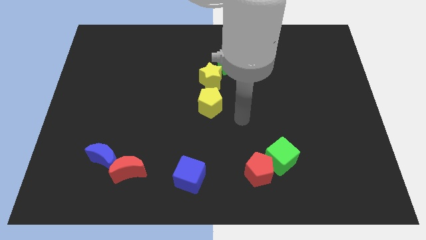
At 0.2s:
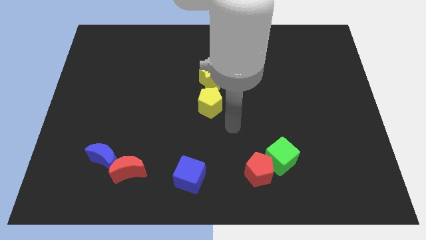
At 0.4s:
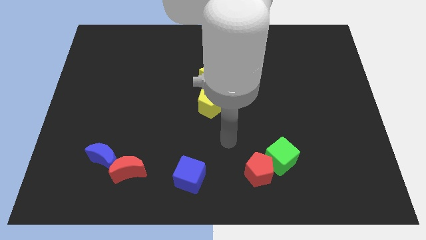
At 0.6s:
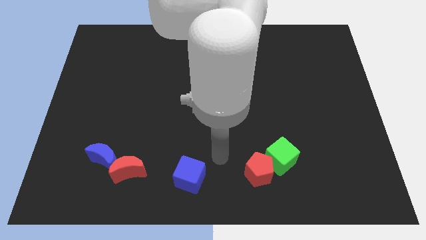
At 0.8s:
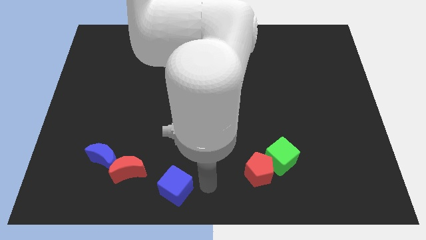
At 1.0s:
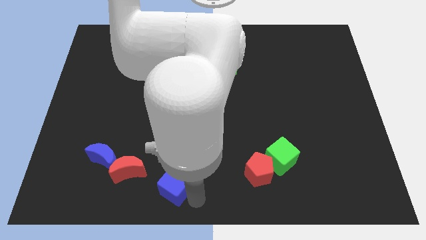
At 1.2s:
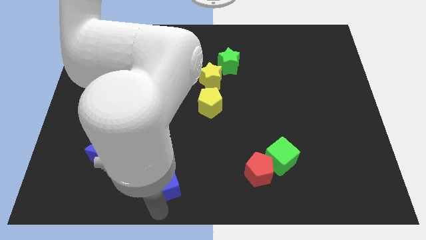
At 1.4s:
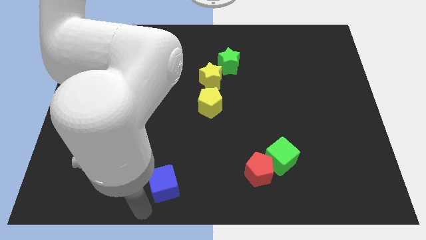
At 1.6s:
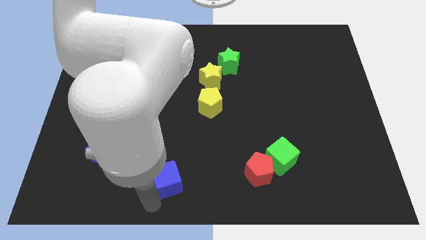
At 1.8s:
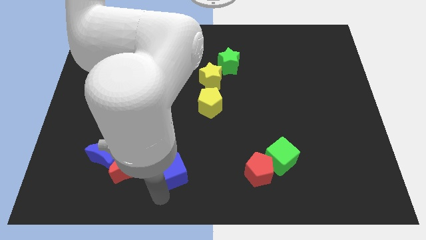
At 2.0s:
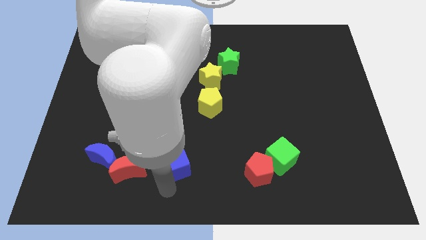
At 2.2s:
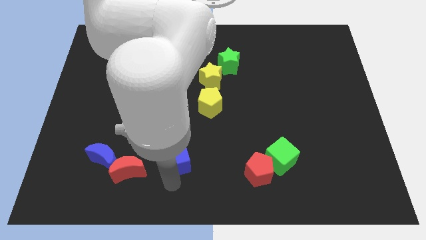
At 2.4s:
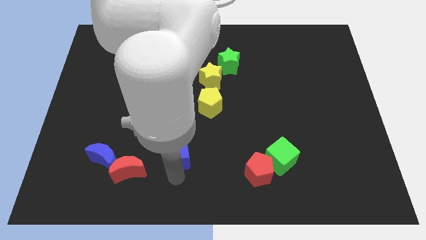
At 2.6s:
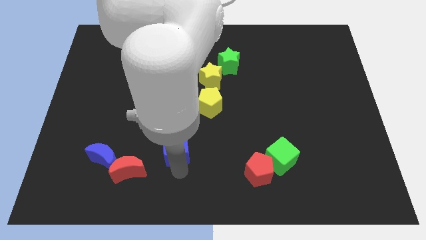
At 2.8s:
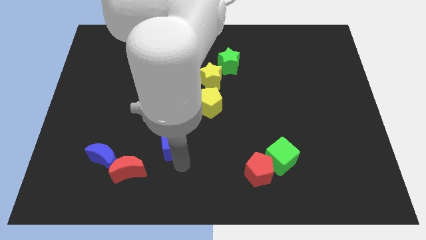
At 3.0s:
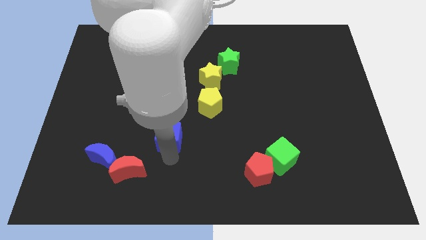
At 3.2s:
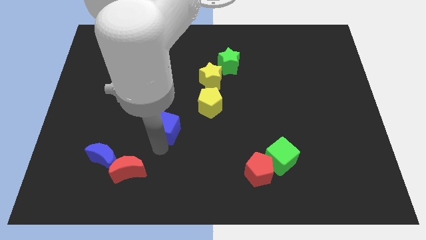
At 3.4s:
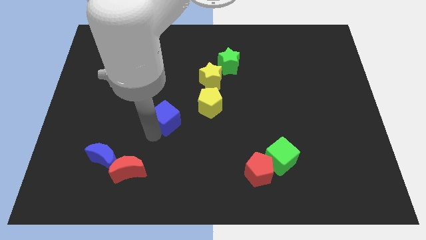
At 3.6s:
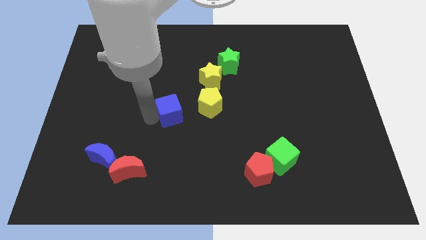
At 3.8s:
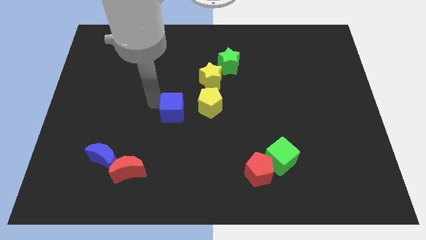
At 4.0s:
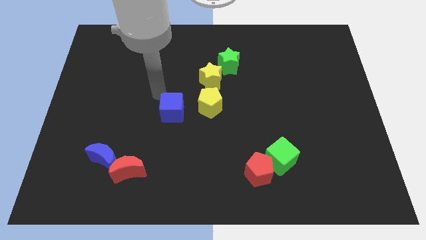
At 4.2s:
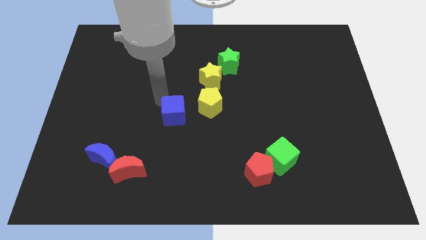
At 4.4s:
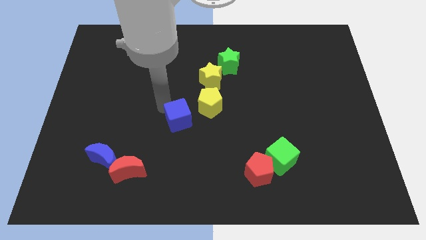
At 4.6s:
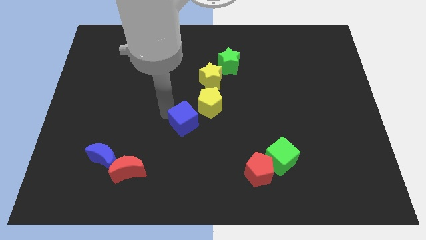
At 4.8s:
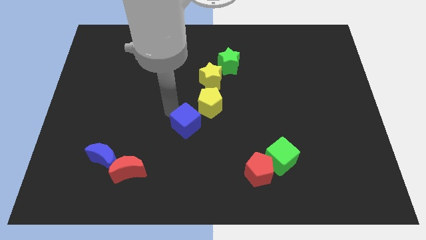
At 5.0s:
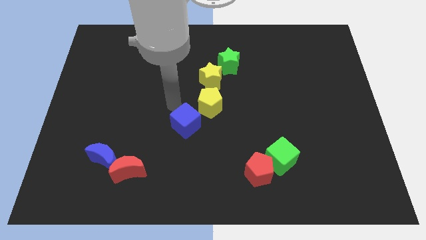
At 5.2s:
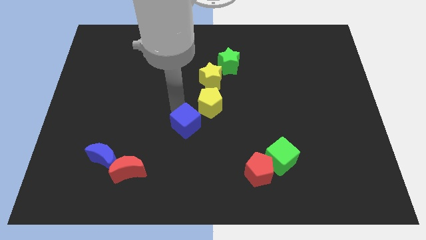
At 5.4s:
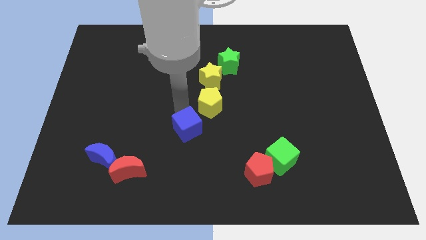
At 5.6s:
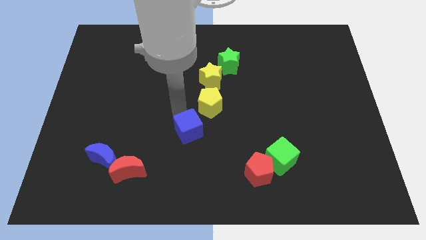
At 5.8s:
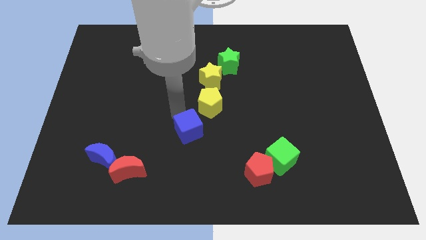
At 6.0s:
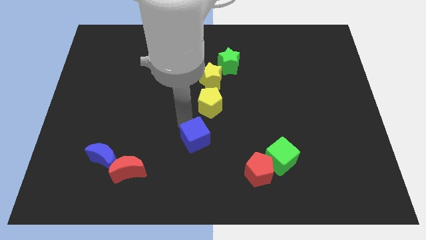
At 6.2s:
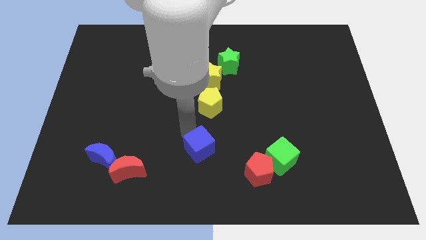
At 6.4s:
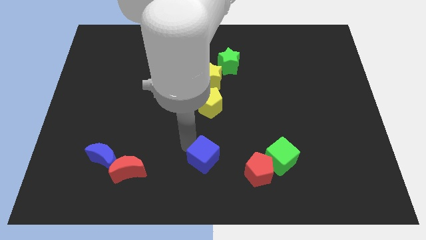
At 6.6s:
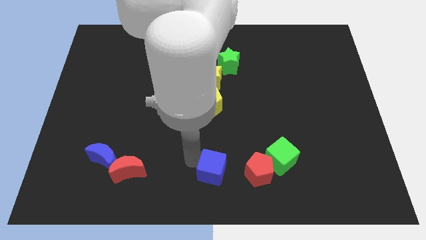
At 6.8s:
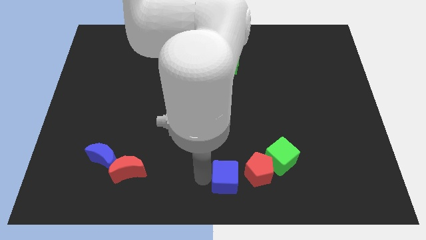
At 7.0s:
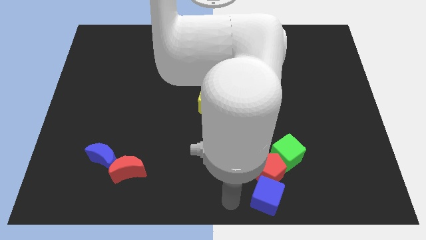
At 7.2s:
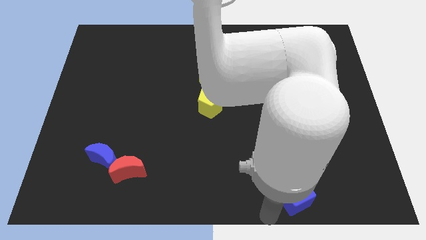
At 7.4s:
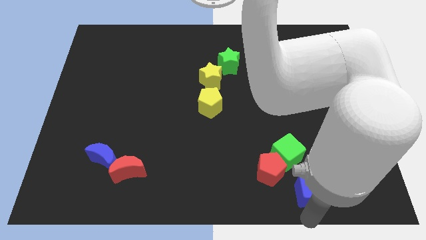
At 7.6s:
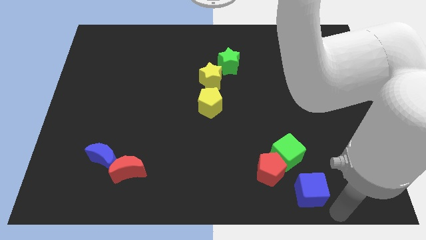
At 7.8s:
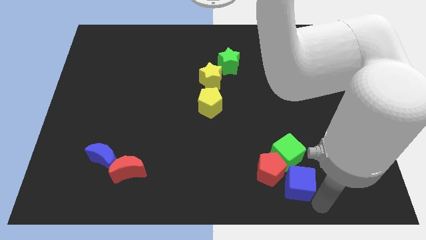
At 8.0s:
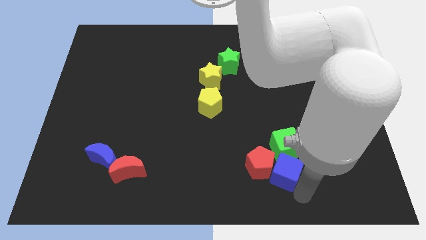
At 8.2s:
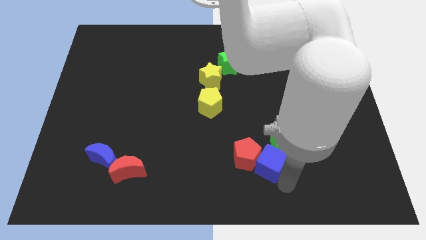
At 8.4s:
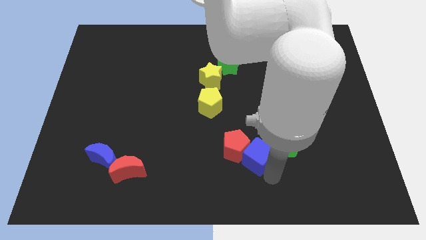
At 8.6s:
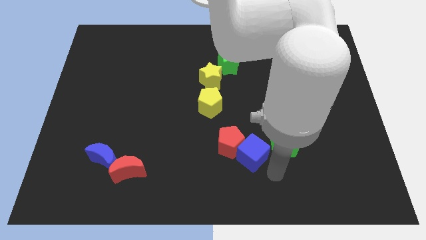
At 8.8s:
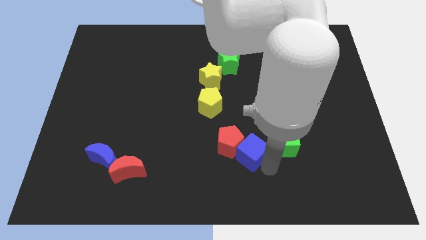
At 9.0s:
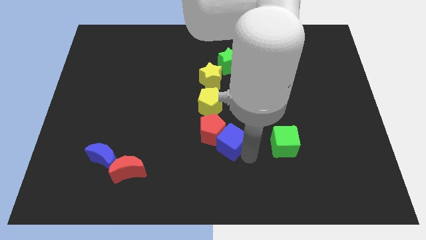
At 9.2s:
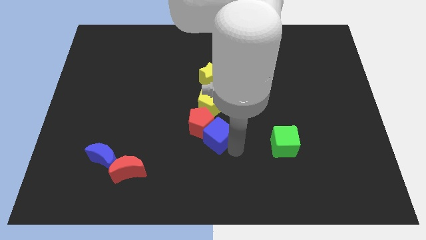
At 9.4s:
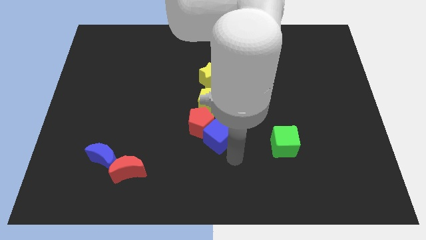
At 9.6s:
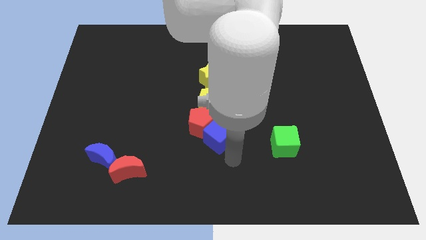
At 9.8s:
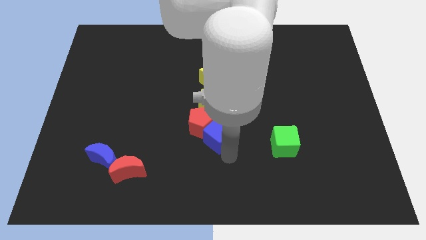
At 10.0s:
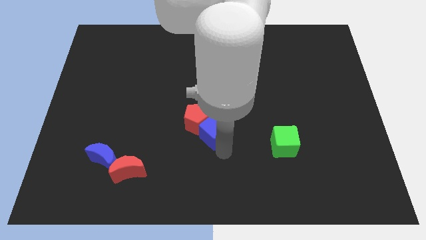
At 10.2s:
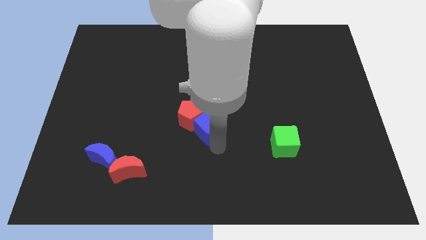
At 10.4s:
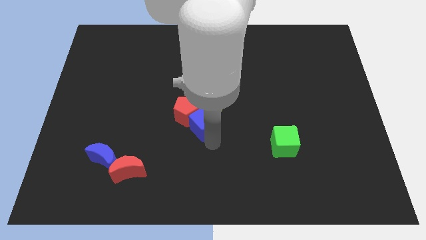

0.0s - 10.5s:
slide the blue cube next to the yellow pentagon

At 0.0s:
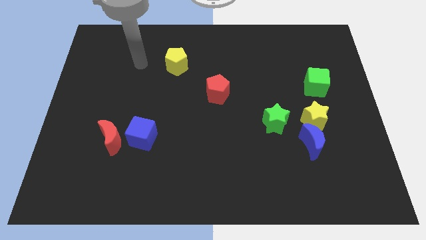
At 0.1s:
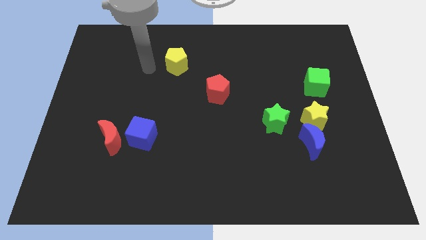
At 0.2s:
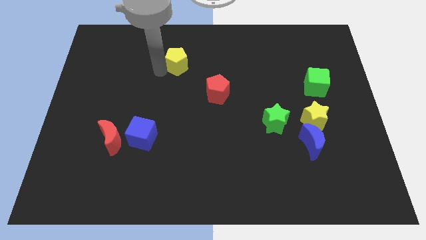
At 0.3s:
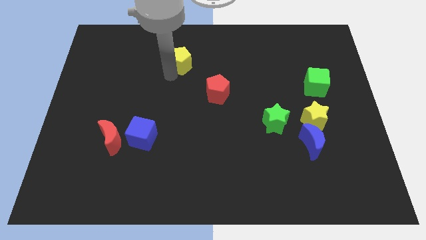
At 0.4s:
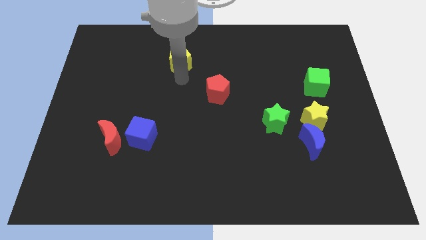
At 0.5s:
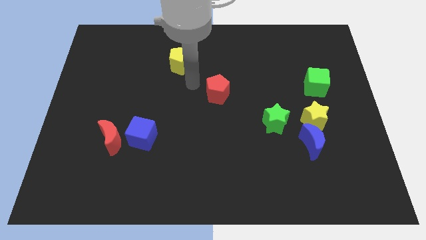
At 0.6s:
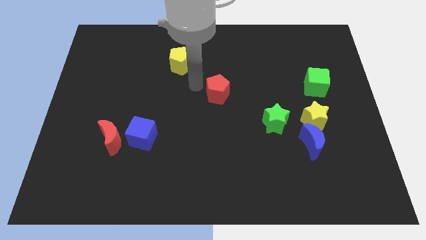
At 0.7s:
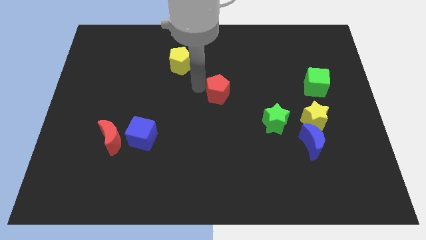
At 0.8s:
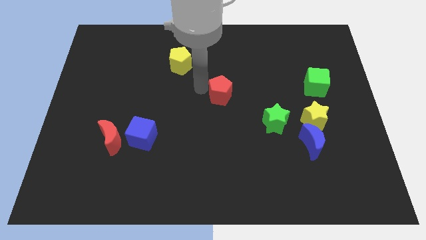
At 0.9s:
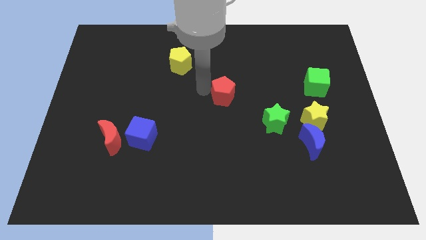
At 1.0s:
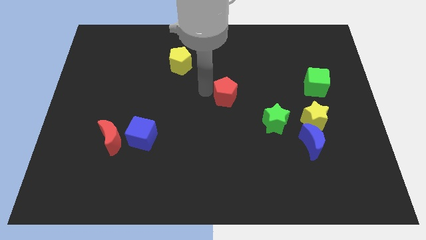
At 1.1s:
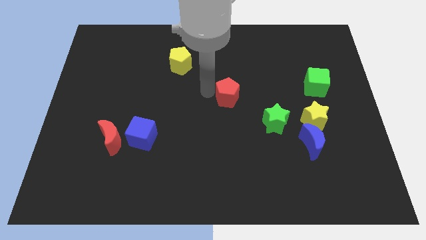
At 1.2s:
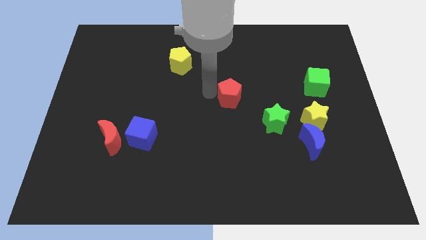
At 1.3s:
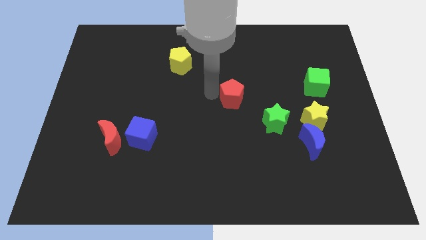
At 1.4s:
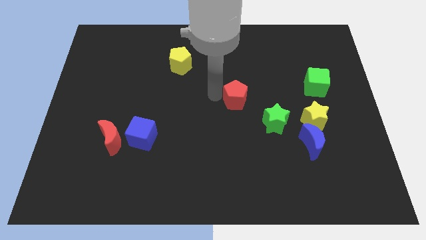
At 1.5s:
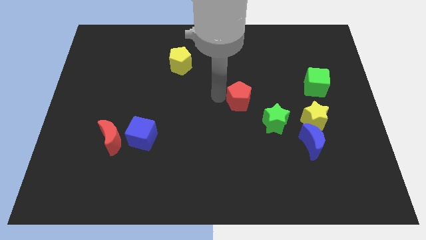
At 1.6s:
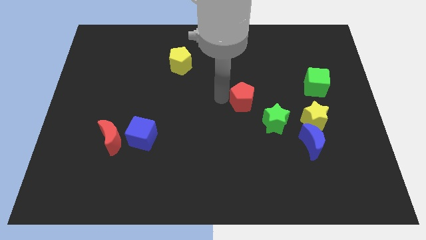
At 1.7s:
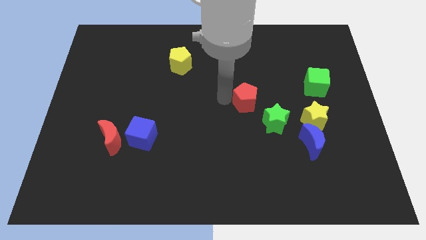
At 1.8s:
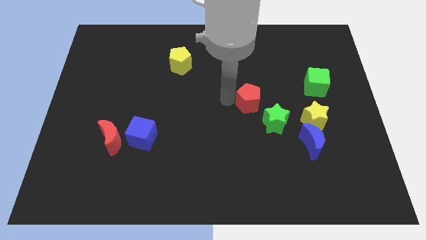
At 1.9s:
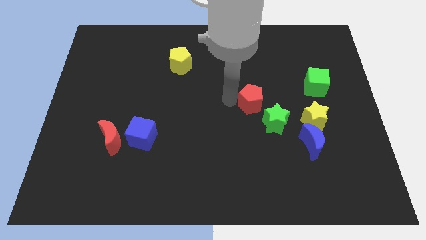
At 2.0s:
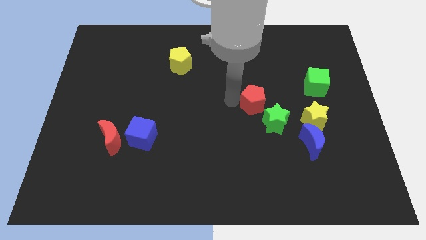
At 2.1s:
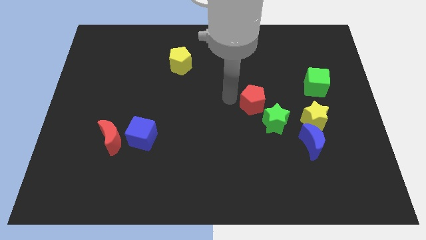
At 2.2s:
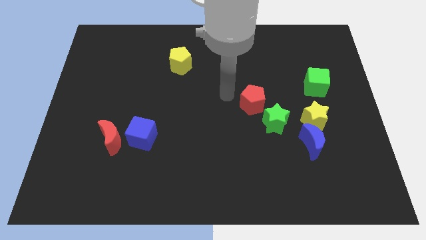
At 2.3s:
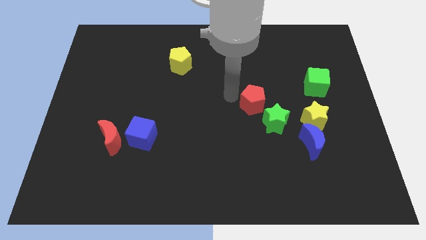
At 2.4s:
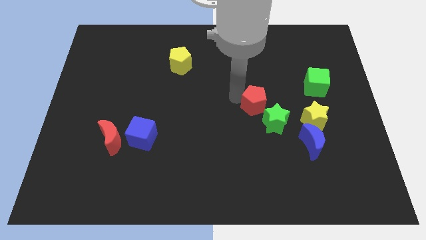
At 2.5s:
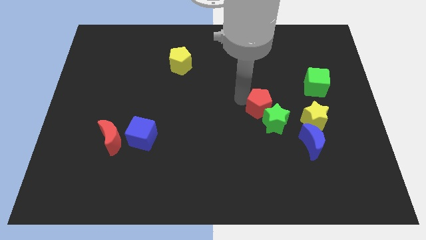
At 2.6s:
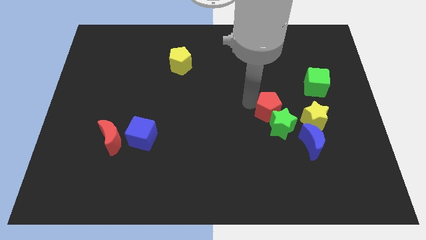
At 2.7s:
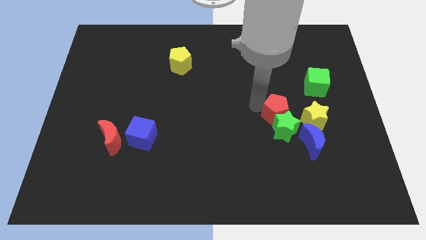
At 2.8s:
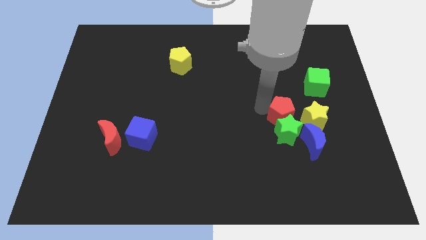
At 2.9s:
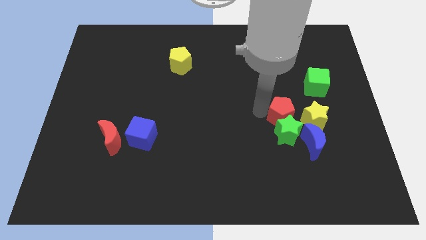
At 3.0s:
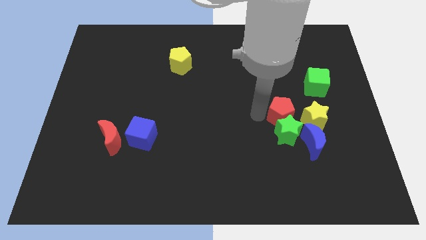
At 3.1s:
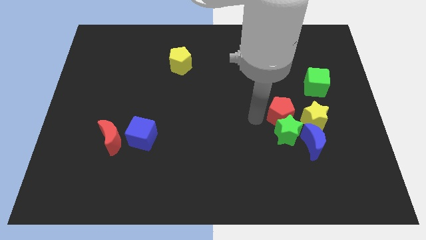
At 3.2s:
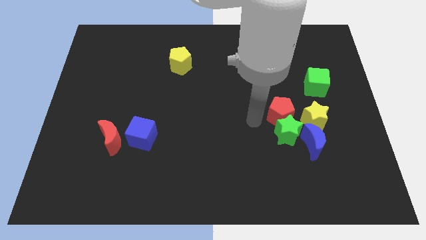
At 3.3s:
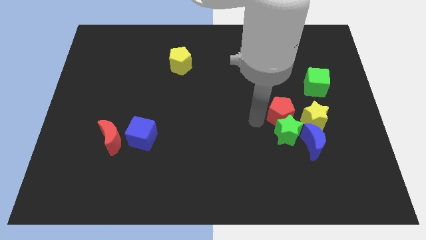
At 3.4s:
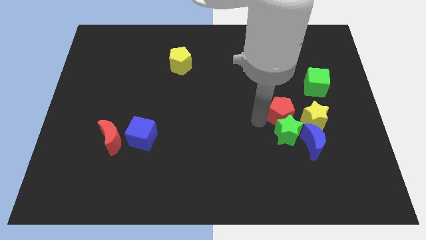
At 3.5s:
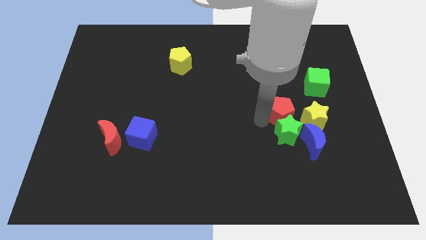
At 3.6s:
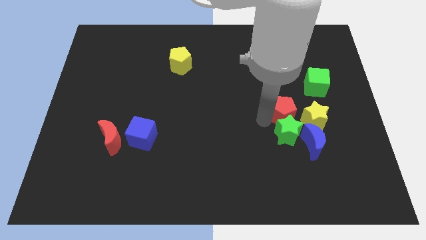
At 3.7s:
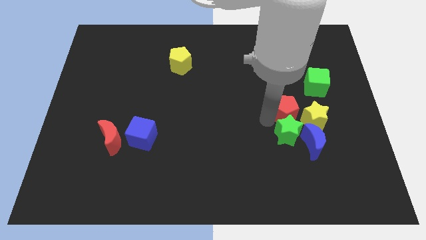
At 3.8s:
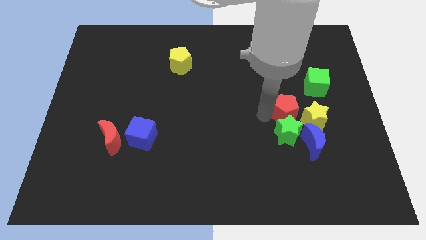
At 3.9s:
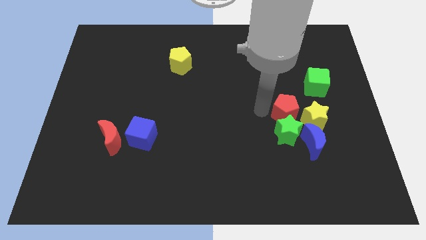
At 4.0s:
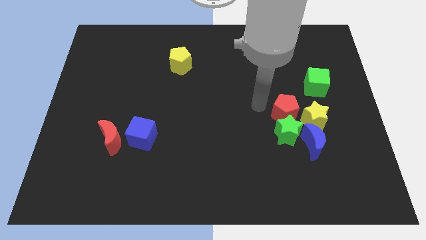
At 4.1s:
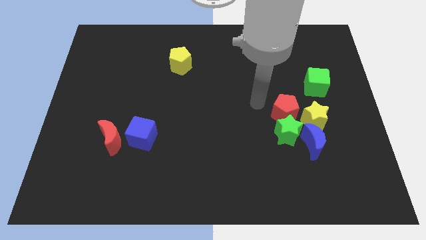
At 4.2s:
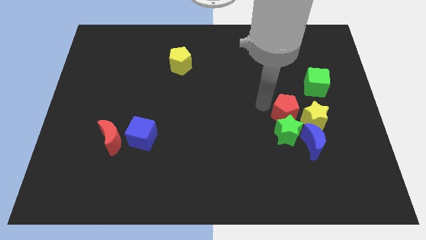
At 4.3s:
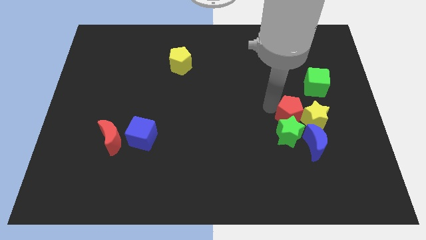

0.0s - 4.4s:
move the red pentagon to the yellow star
